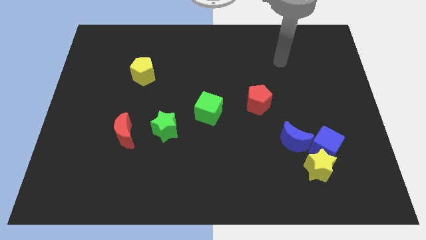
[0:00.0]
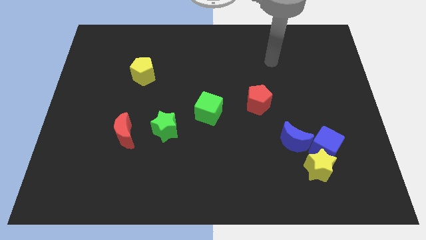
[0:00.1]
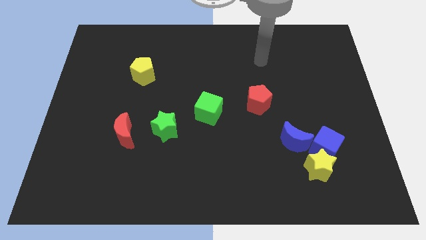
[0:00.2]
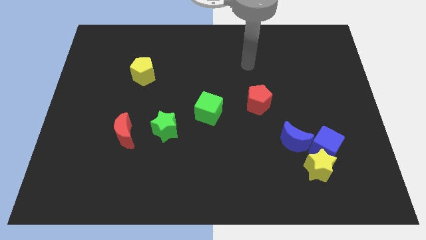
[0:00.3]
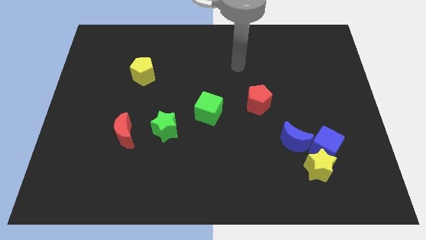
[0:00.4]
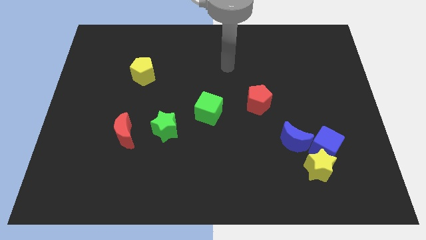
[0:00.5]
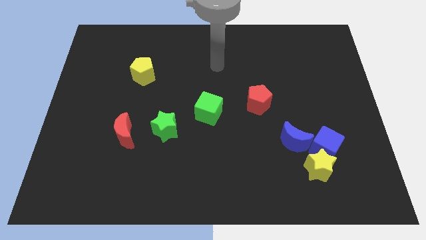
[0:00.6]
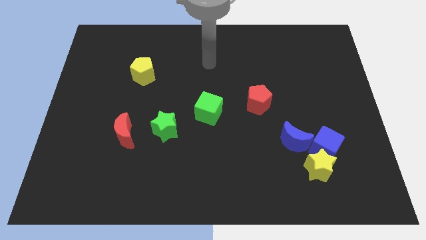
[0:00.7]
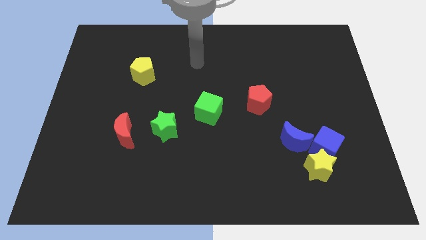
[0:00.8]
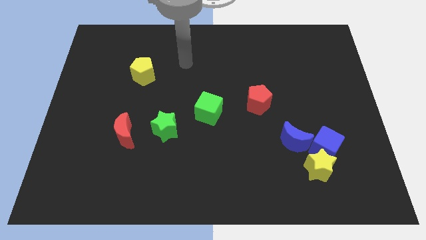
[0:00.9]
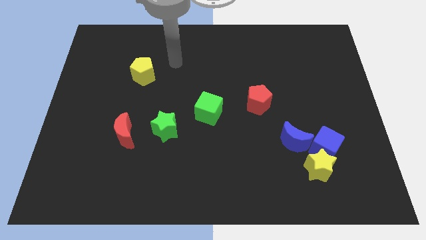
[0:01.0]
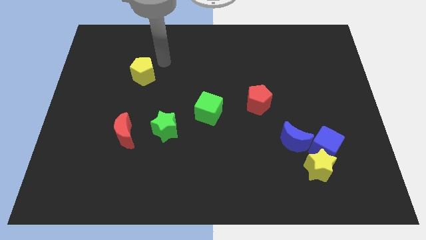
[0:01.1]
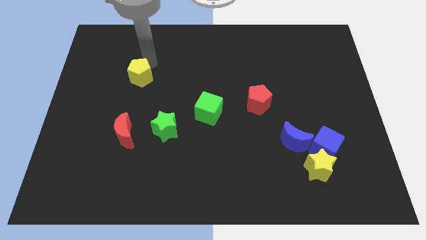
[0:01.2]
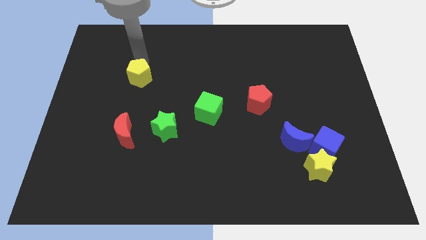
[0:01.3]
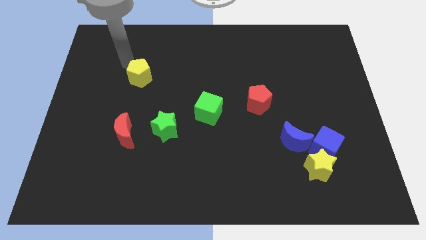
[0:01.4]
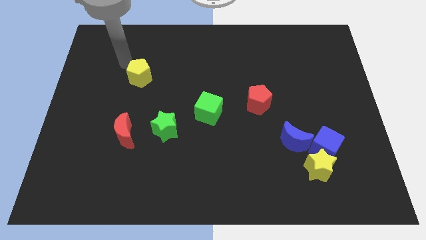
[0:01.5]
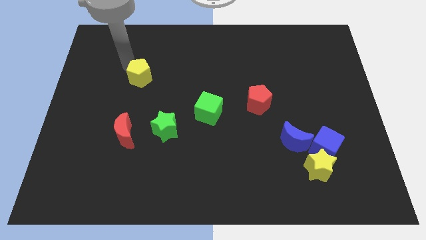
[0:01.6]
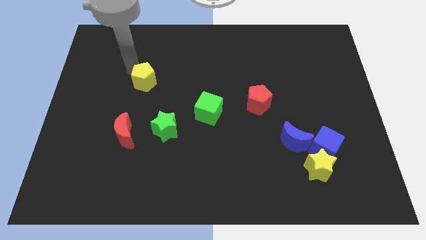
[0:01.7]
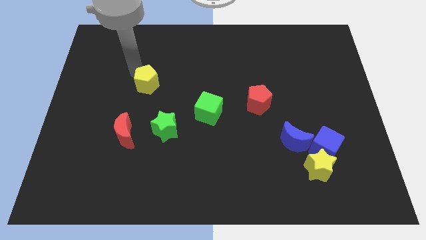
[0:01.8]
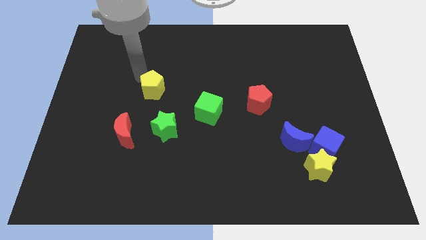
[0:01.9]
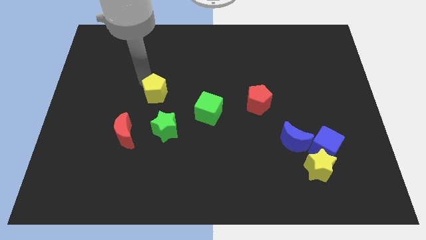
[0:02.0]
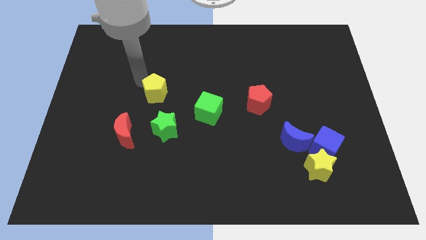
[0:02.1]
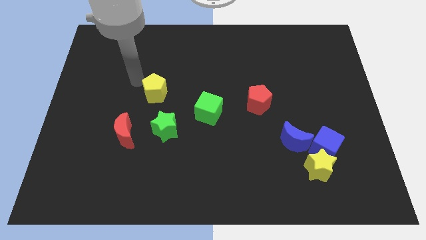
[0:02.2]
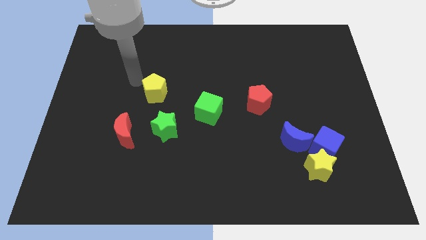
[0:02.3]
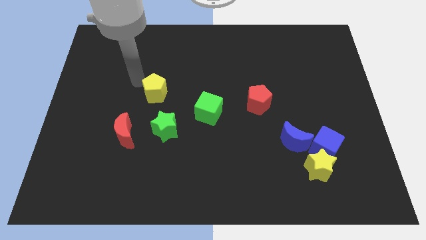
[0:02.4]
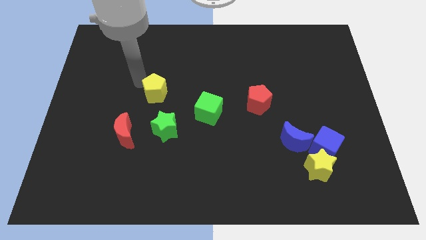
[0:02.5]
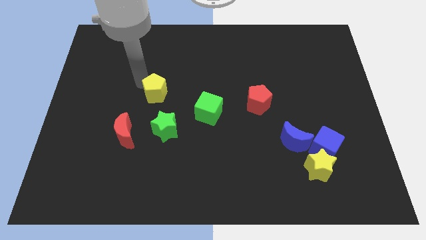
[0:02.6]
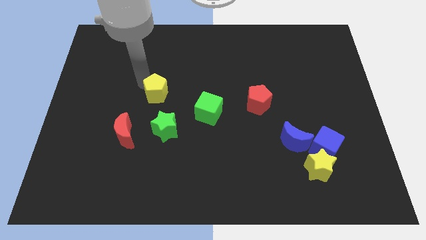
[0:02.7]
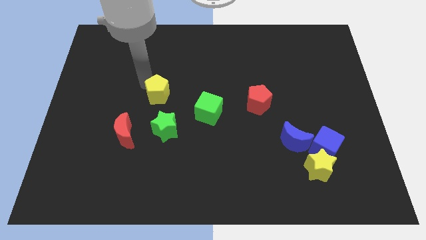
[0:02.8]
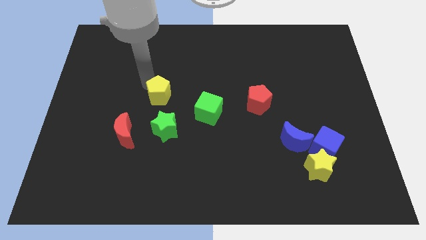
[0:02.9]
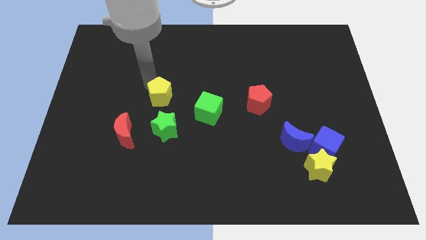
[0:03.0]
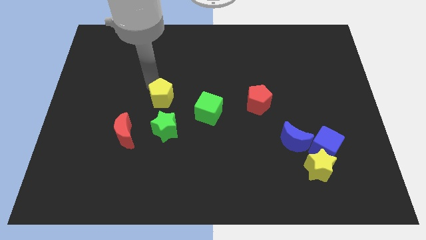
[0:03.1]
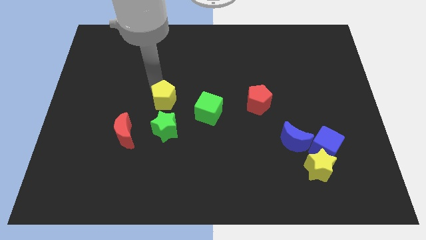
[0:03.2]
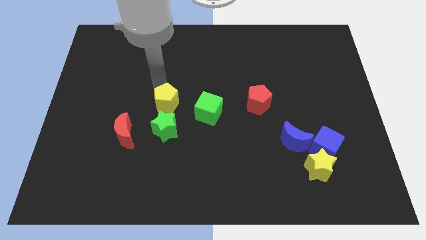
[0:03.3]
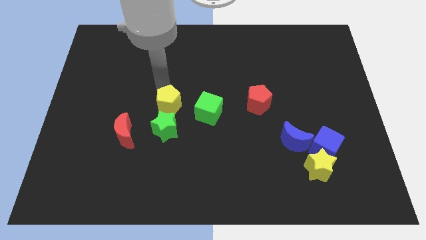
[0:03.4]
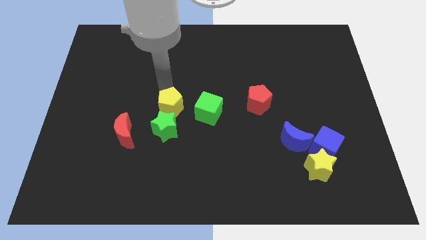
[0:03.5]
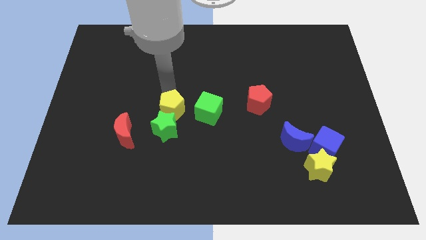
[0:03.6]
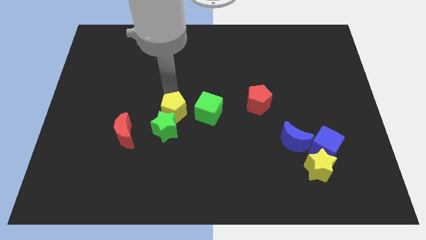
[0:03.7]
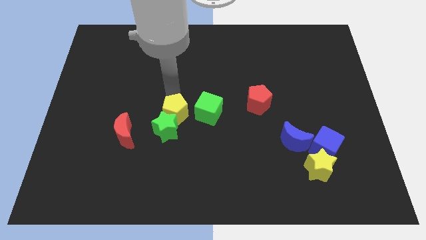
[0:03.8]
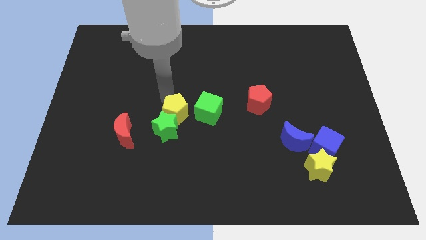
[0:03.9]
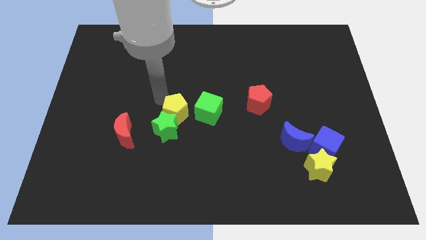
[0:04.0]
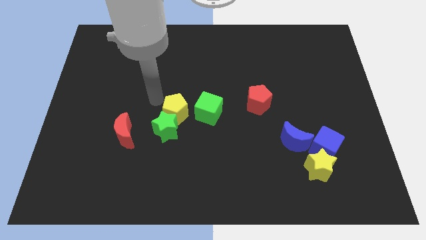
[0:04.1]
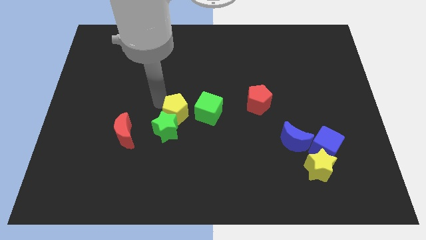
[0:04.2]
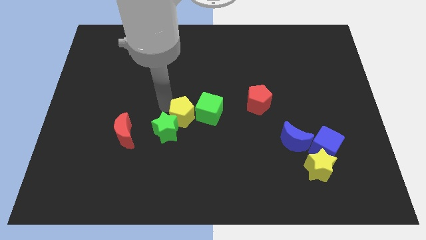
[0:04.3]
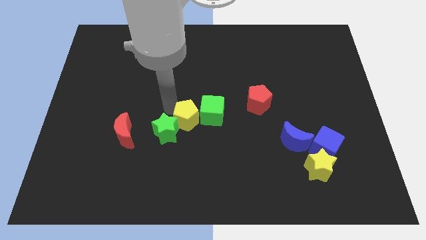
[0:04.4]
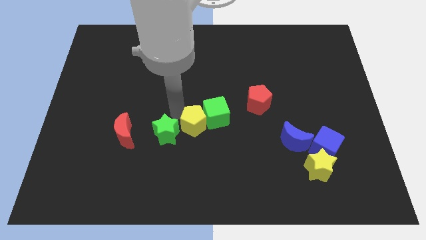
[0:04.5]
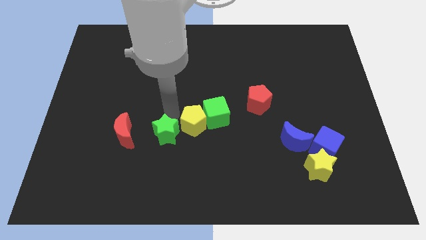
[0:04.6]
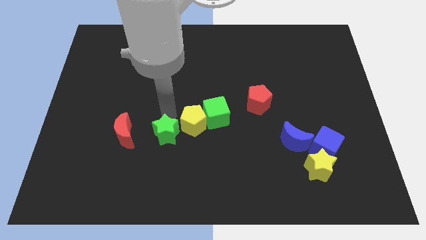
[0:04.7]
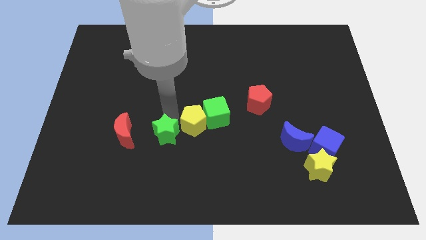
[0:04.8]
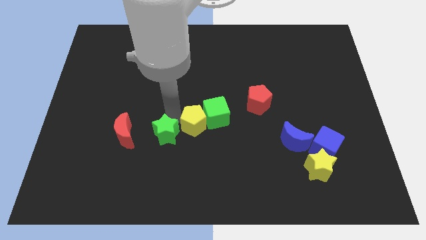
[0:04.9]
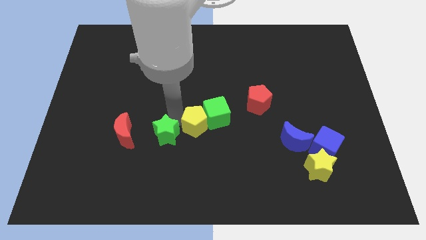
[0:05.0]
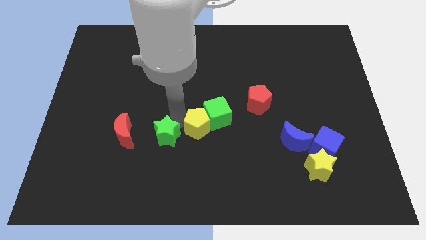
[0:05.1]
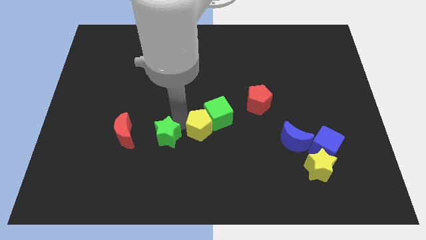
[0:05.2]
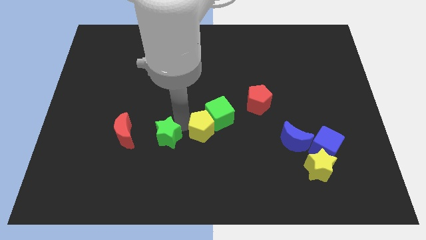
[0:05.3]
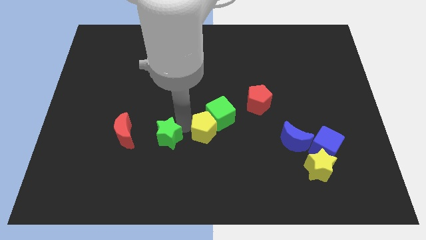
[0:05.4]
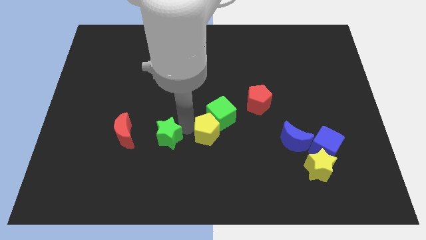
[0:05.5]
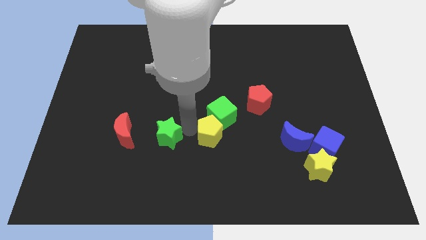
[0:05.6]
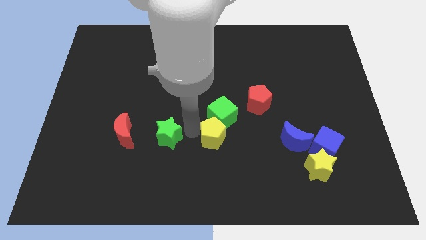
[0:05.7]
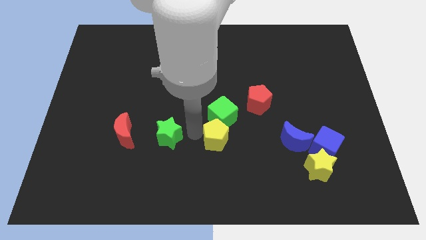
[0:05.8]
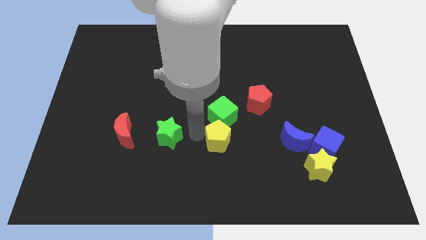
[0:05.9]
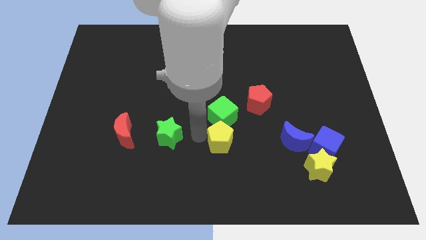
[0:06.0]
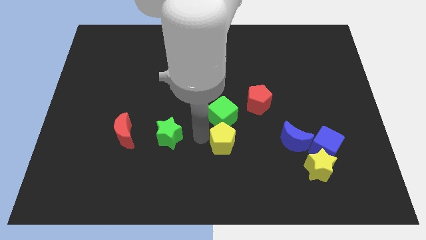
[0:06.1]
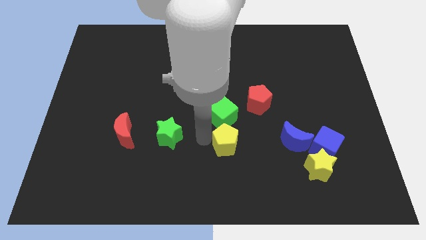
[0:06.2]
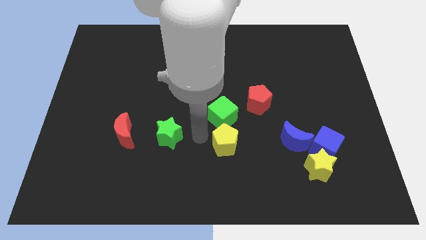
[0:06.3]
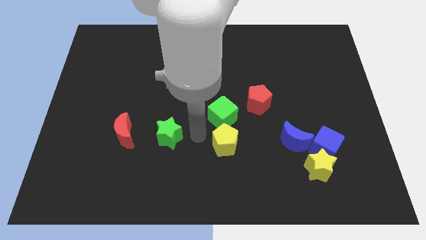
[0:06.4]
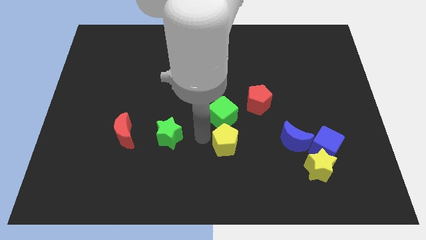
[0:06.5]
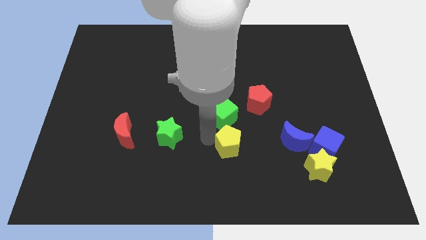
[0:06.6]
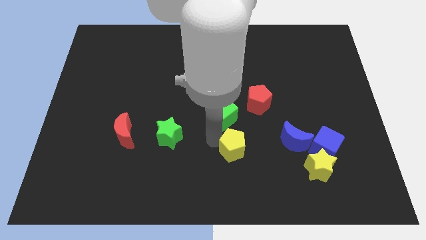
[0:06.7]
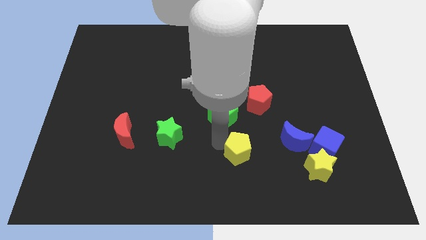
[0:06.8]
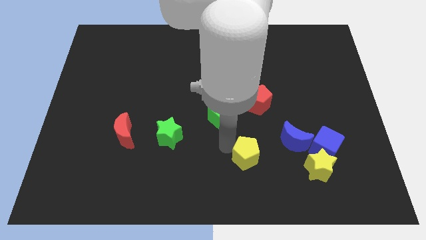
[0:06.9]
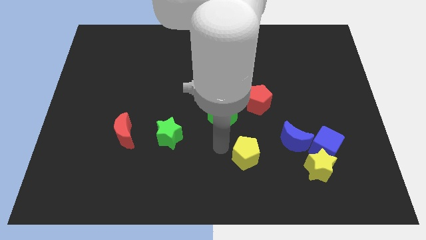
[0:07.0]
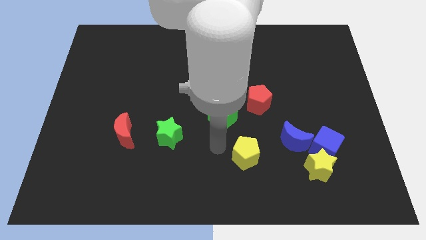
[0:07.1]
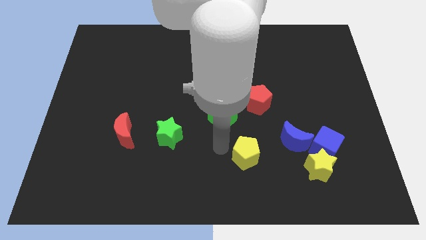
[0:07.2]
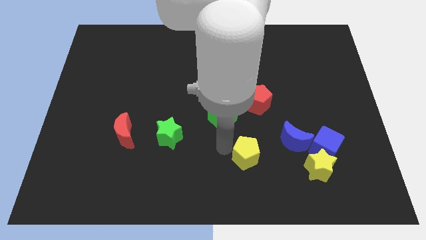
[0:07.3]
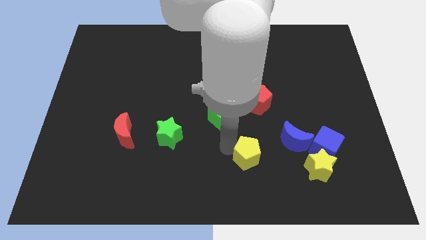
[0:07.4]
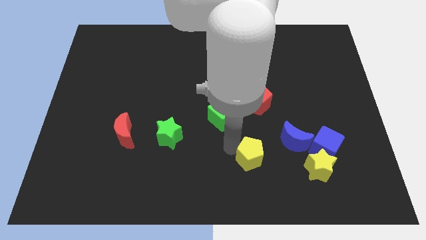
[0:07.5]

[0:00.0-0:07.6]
move the yellow pentagon to the bottom left of the blue moon
